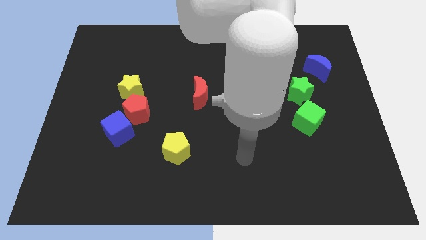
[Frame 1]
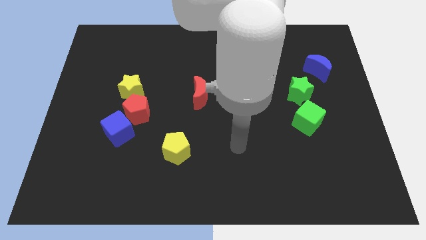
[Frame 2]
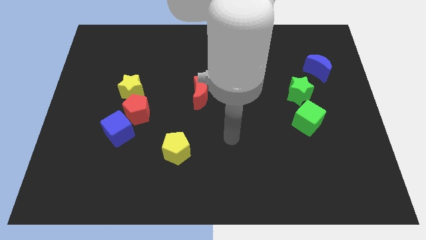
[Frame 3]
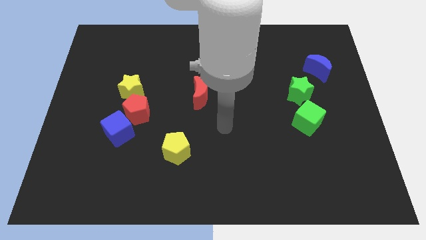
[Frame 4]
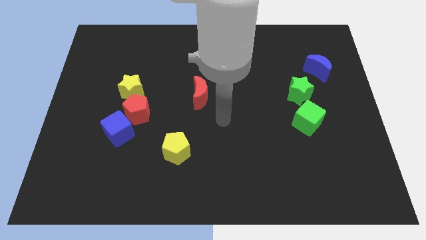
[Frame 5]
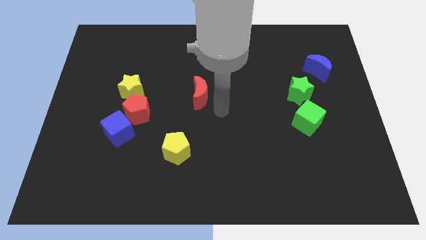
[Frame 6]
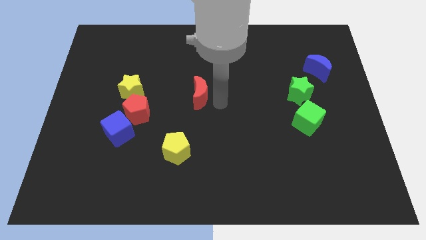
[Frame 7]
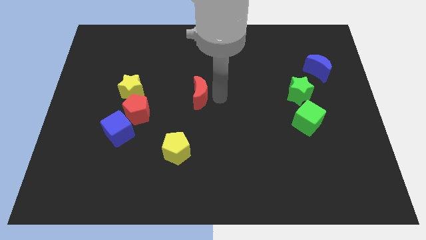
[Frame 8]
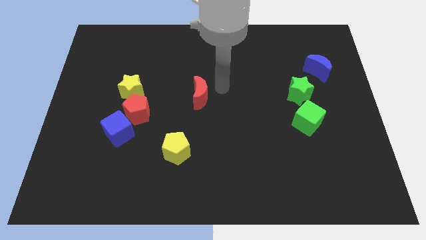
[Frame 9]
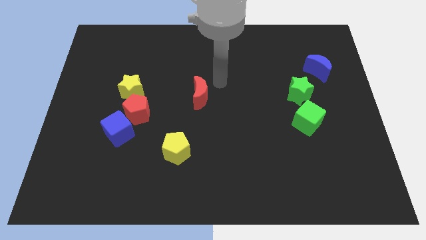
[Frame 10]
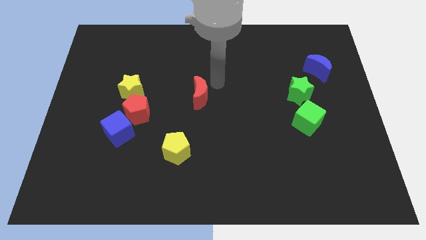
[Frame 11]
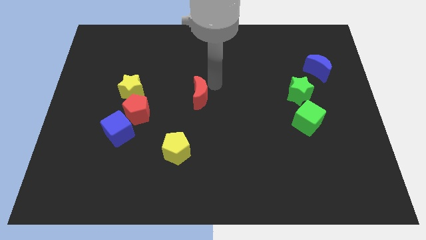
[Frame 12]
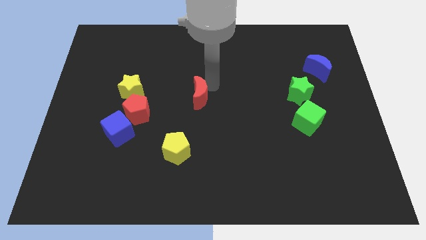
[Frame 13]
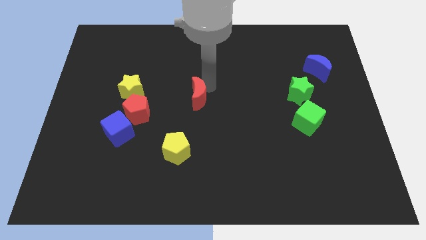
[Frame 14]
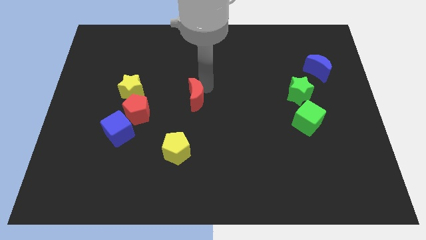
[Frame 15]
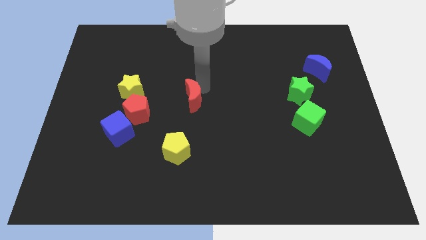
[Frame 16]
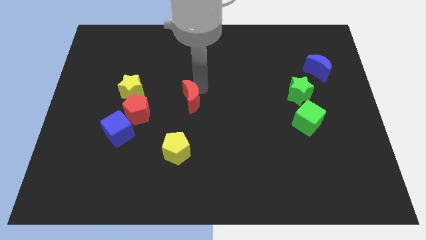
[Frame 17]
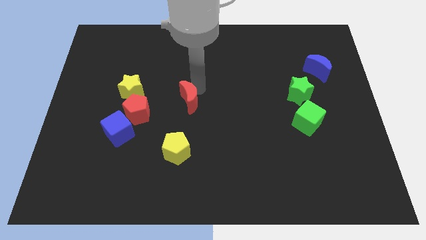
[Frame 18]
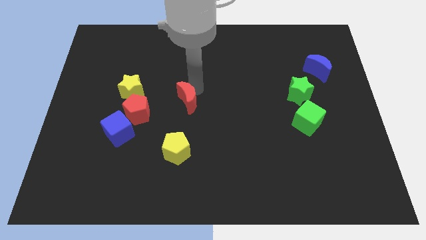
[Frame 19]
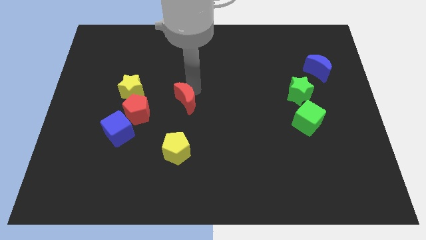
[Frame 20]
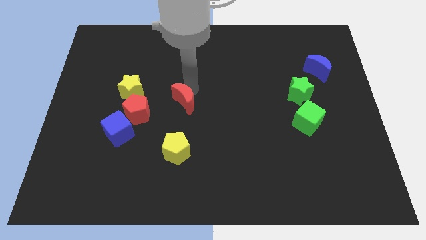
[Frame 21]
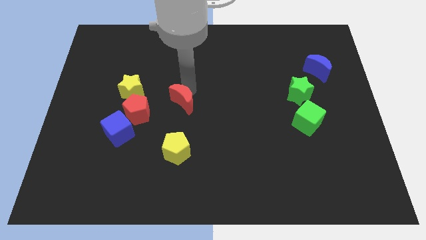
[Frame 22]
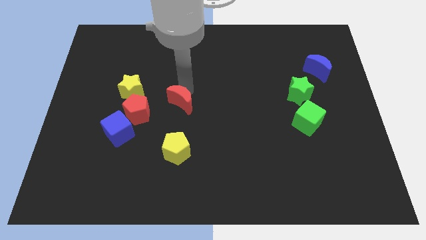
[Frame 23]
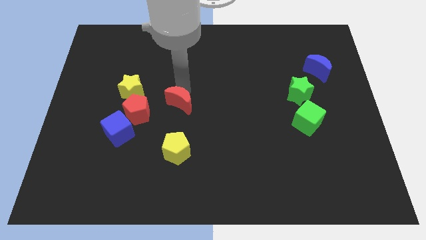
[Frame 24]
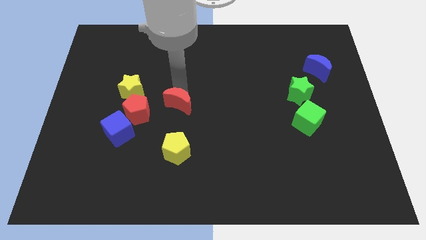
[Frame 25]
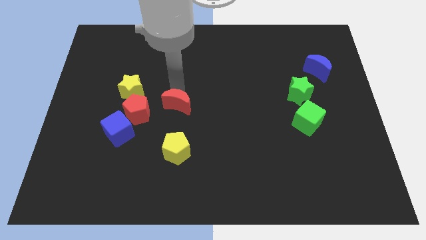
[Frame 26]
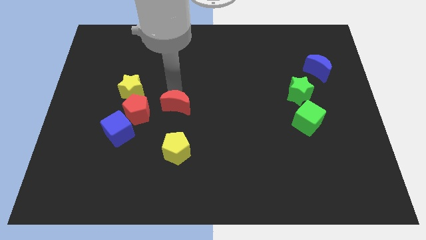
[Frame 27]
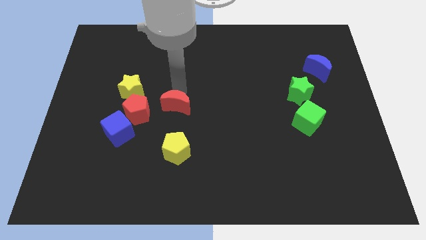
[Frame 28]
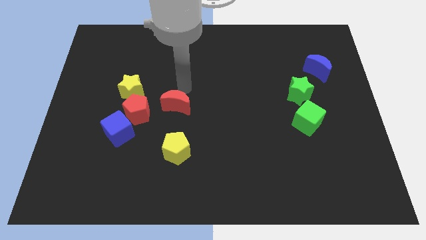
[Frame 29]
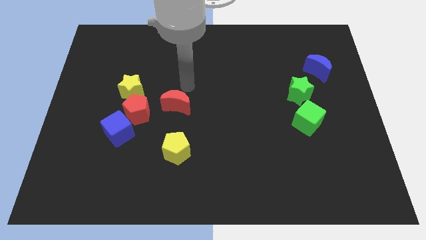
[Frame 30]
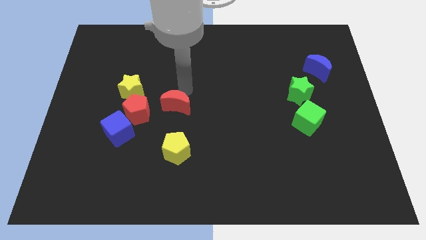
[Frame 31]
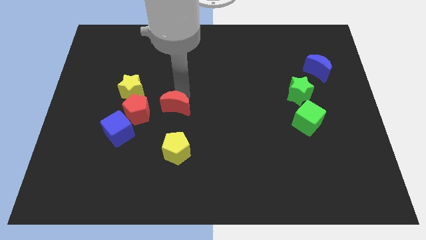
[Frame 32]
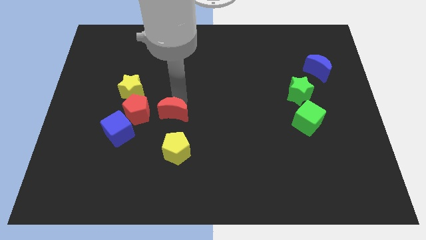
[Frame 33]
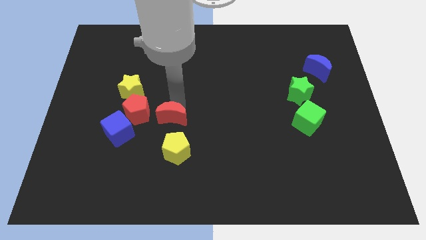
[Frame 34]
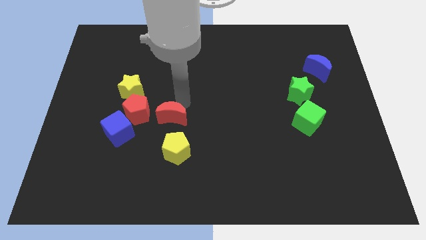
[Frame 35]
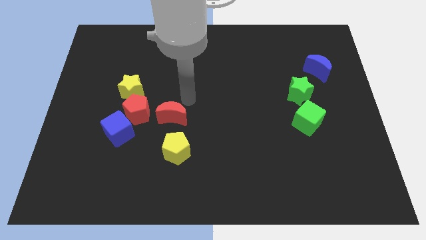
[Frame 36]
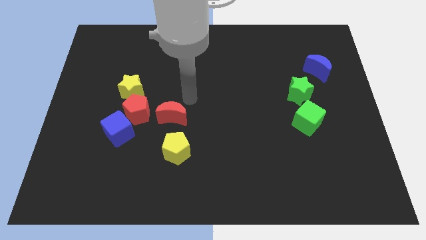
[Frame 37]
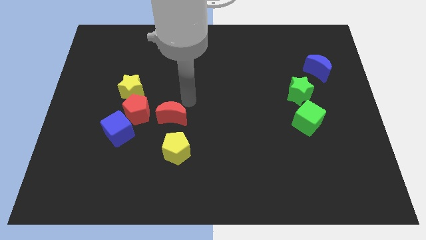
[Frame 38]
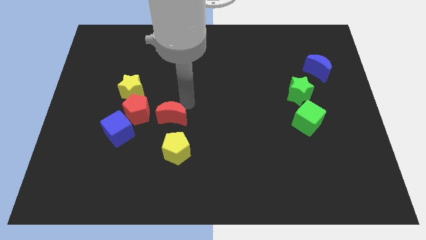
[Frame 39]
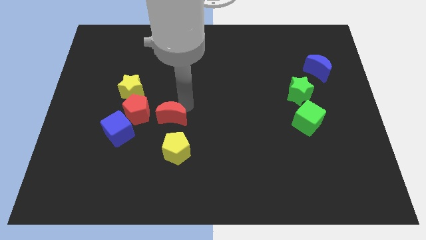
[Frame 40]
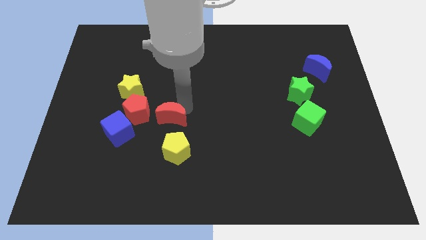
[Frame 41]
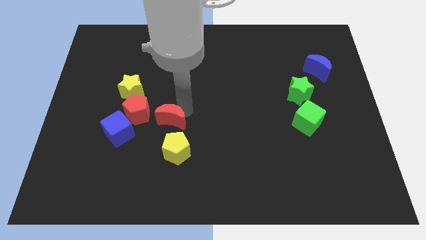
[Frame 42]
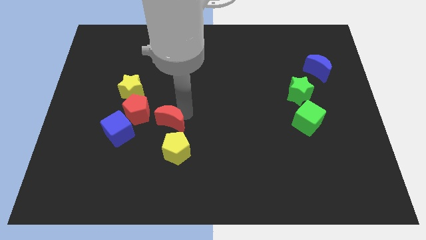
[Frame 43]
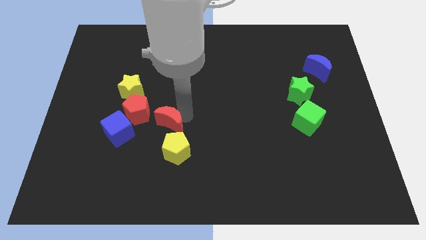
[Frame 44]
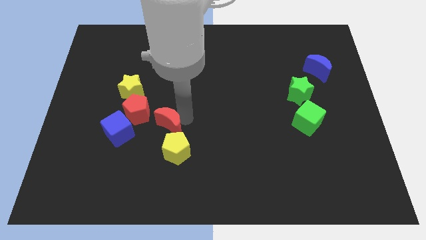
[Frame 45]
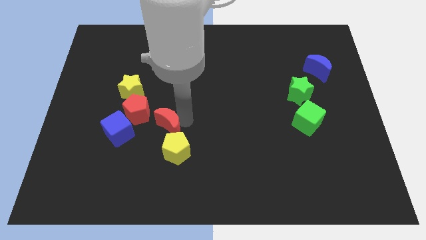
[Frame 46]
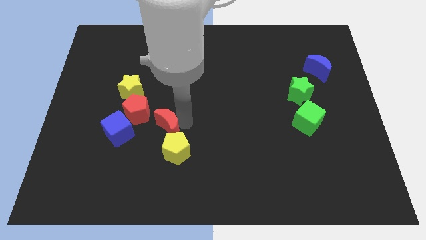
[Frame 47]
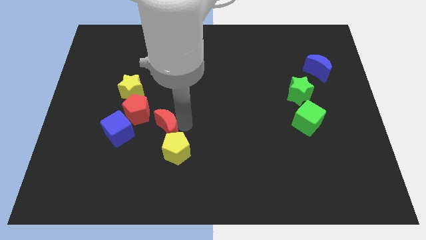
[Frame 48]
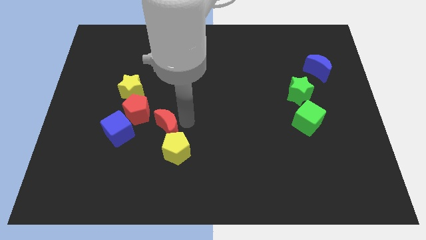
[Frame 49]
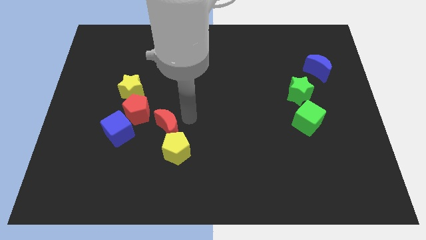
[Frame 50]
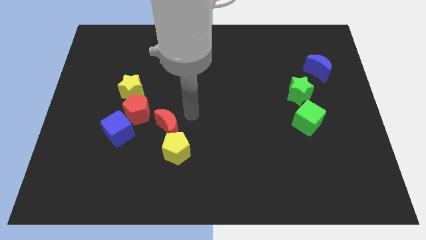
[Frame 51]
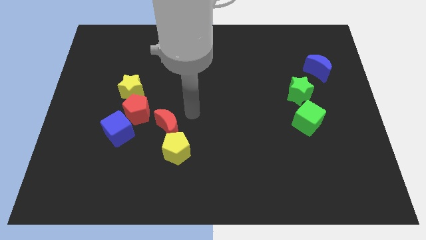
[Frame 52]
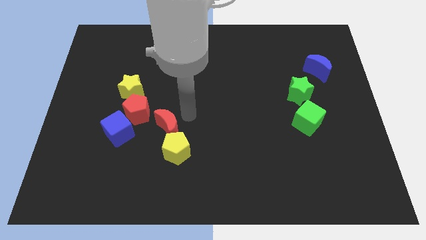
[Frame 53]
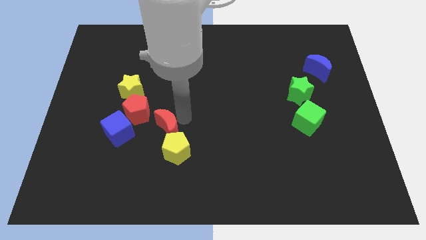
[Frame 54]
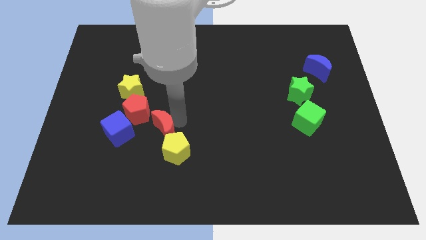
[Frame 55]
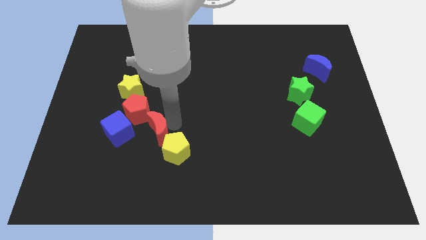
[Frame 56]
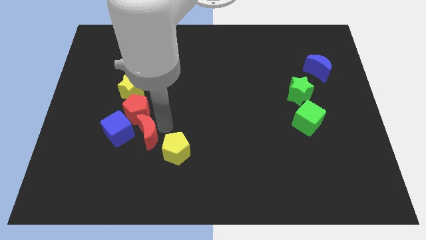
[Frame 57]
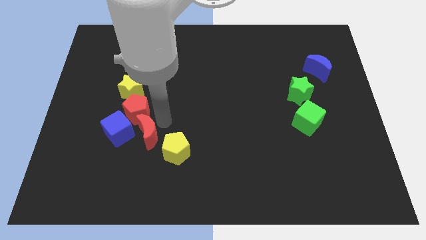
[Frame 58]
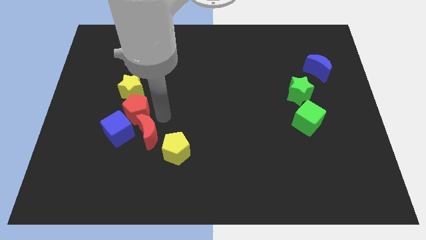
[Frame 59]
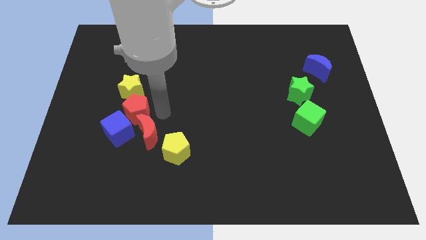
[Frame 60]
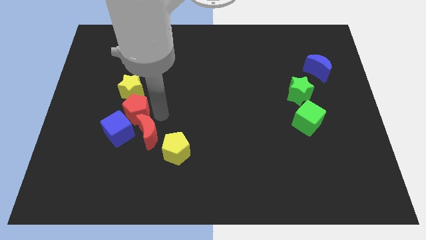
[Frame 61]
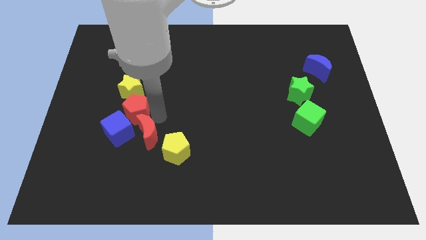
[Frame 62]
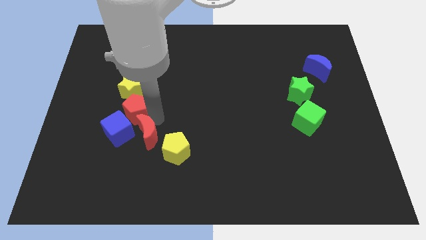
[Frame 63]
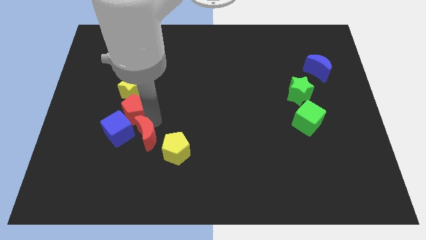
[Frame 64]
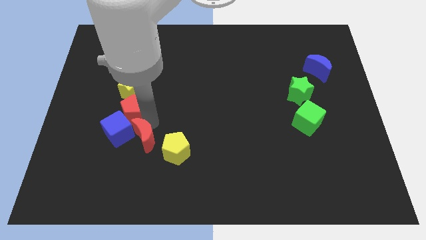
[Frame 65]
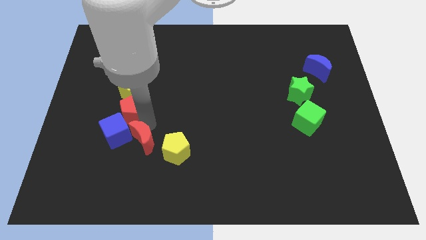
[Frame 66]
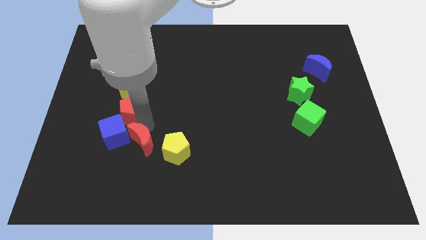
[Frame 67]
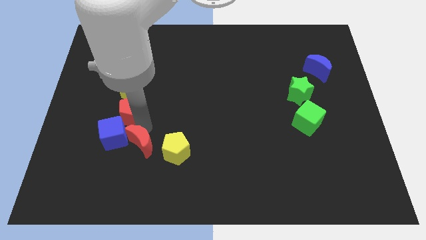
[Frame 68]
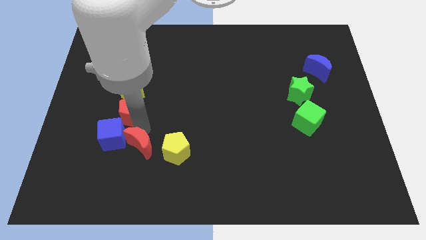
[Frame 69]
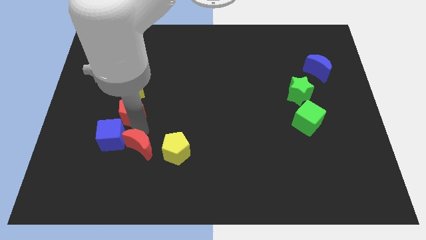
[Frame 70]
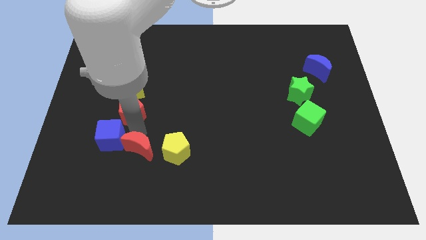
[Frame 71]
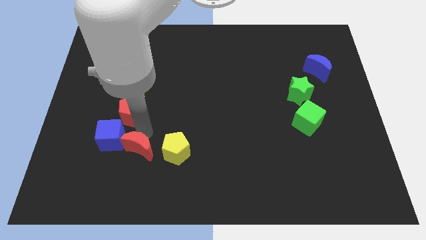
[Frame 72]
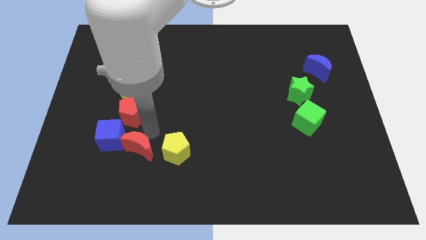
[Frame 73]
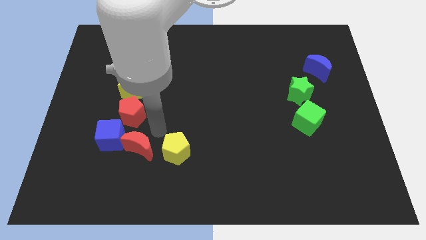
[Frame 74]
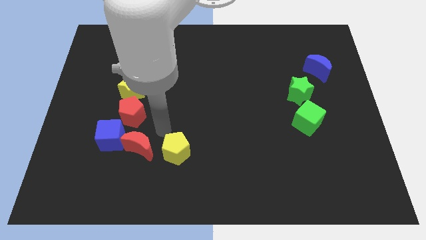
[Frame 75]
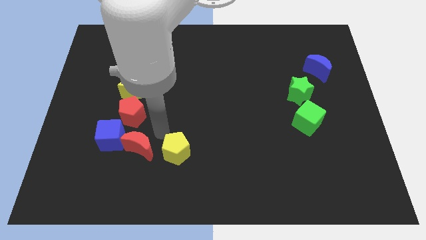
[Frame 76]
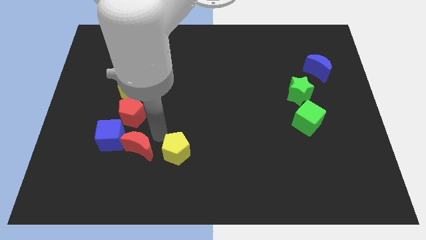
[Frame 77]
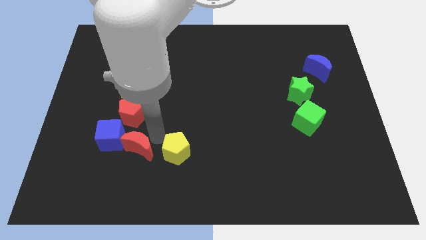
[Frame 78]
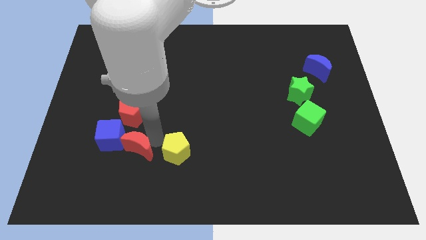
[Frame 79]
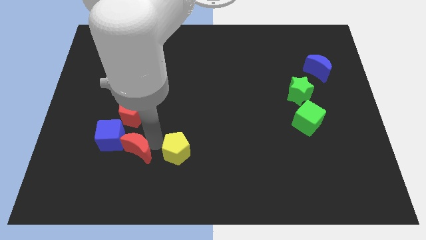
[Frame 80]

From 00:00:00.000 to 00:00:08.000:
push the red moon down and then to the left
